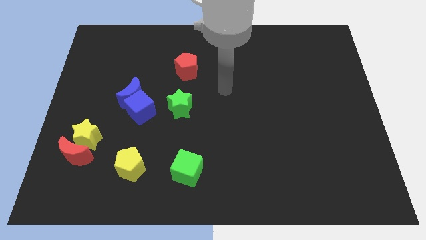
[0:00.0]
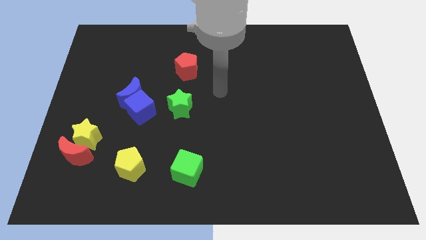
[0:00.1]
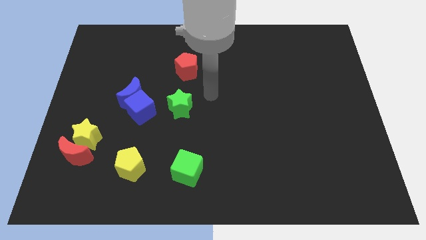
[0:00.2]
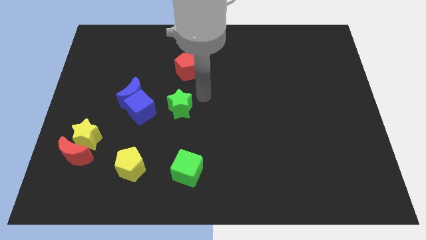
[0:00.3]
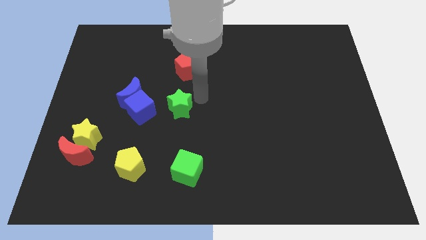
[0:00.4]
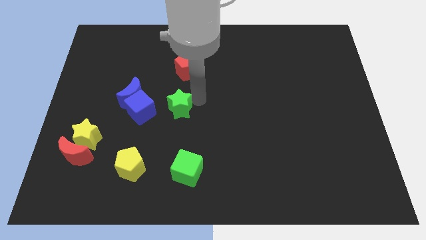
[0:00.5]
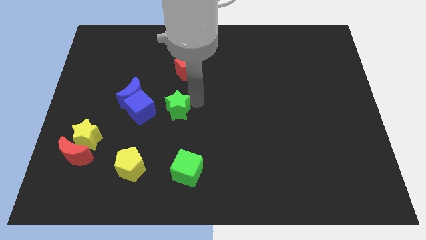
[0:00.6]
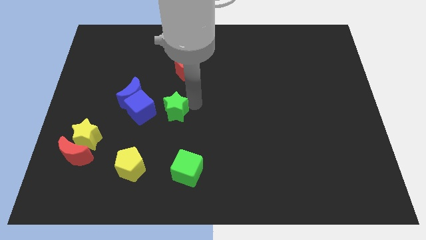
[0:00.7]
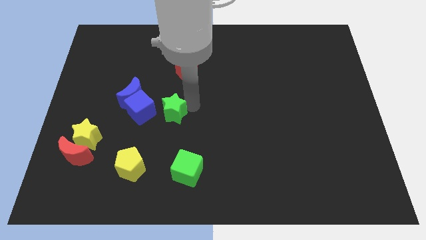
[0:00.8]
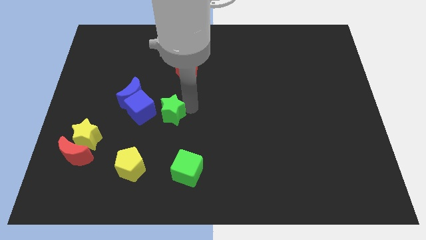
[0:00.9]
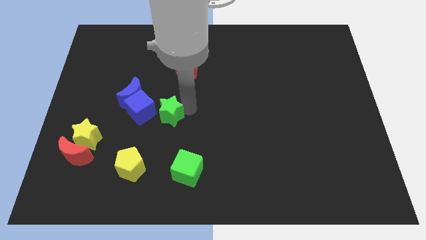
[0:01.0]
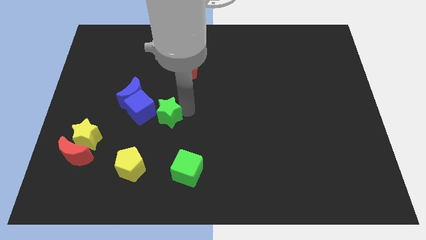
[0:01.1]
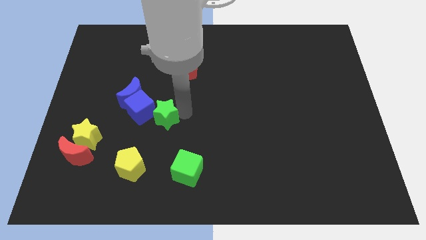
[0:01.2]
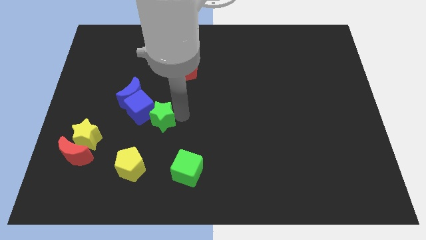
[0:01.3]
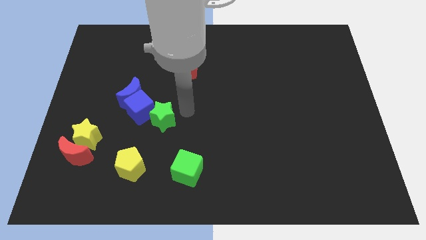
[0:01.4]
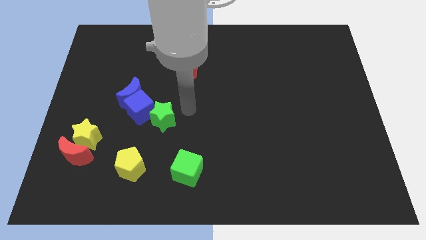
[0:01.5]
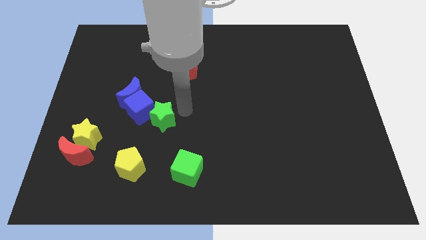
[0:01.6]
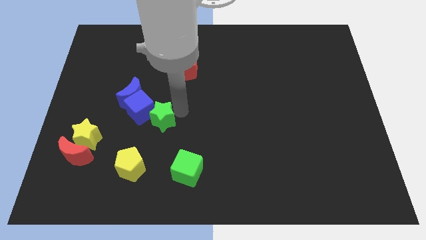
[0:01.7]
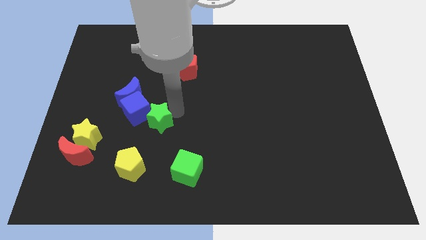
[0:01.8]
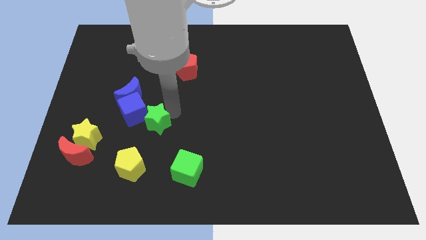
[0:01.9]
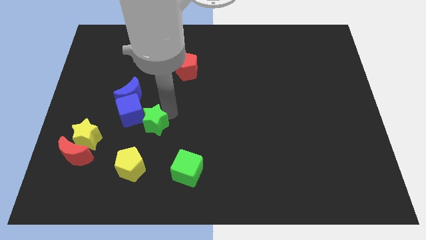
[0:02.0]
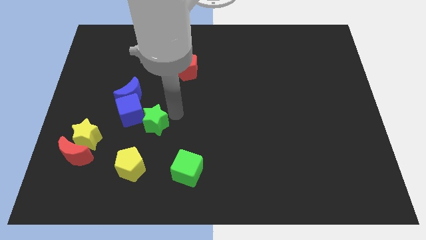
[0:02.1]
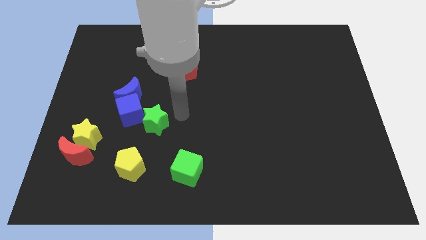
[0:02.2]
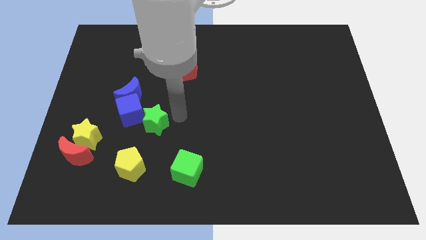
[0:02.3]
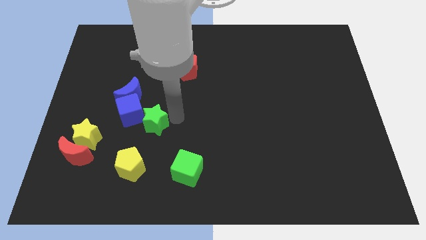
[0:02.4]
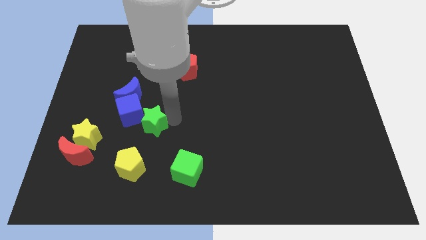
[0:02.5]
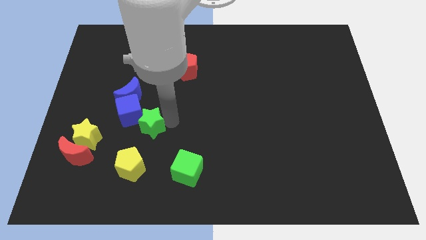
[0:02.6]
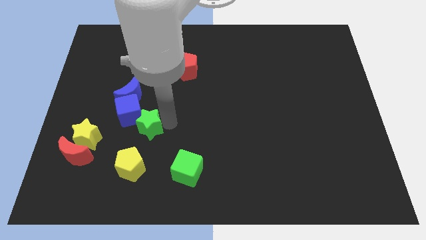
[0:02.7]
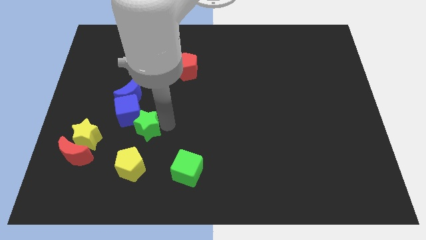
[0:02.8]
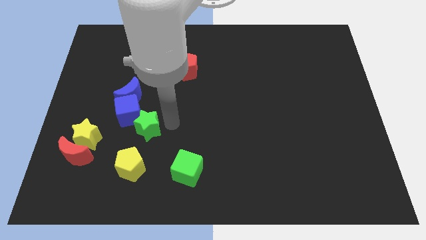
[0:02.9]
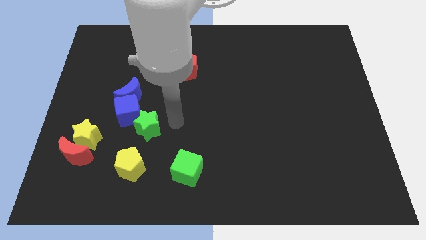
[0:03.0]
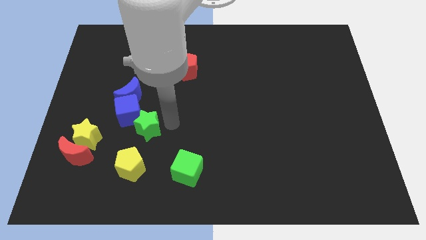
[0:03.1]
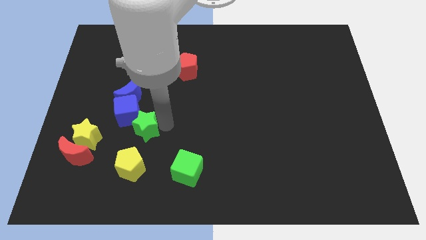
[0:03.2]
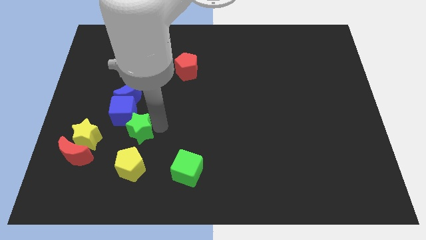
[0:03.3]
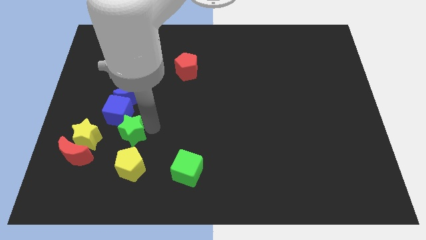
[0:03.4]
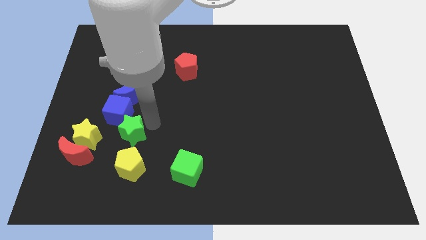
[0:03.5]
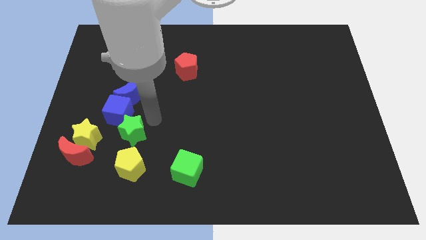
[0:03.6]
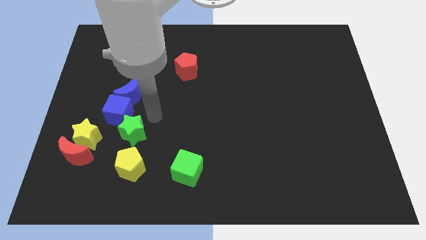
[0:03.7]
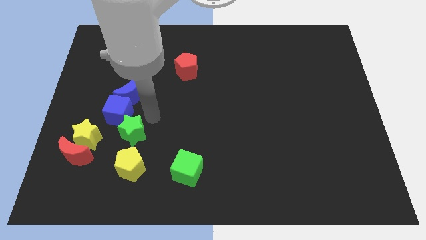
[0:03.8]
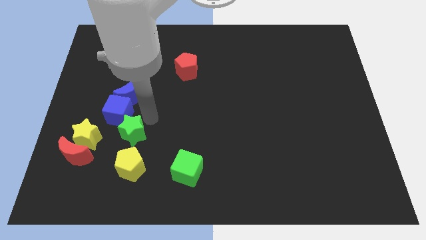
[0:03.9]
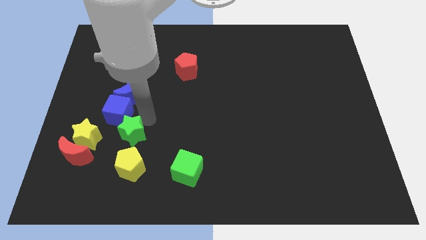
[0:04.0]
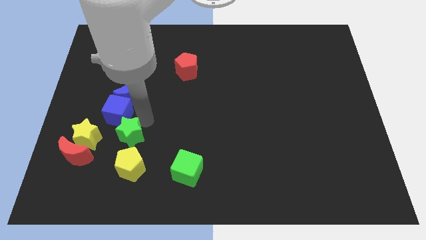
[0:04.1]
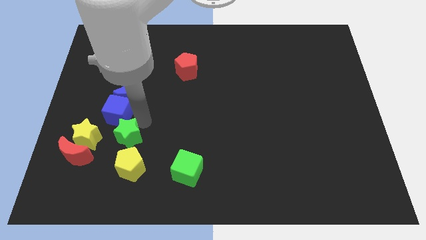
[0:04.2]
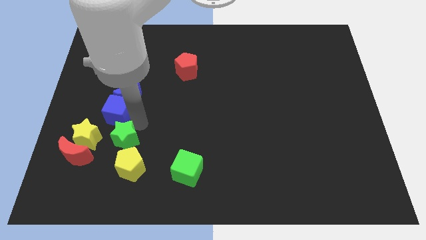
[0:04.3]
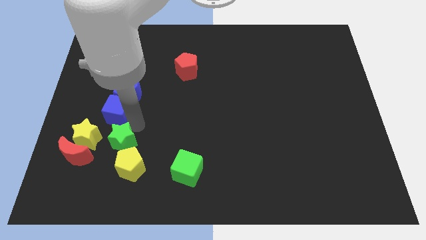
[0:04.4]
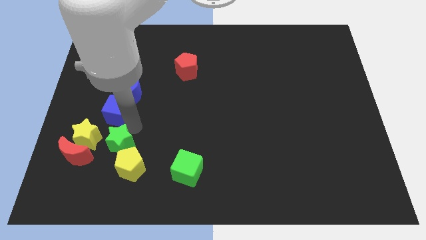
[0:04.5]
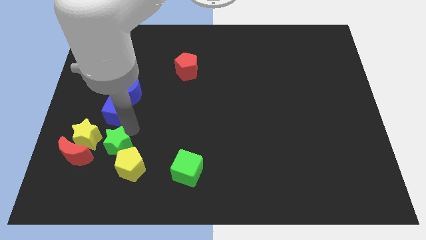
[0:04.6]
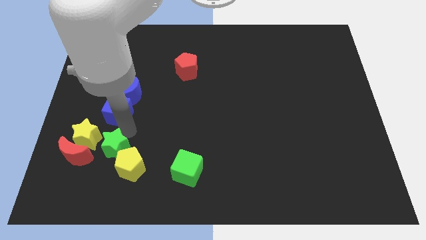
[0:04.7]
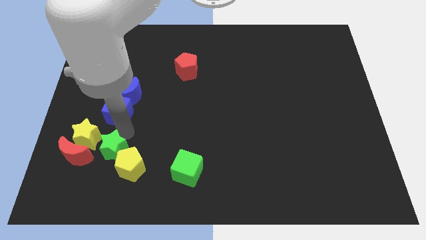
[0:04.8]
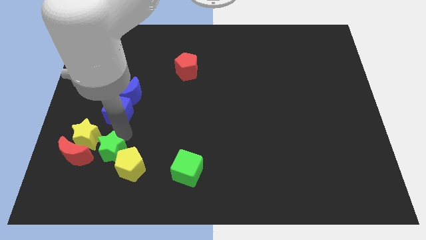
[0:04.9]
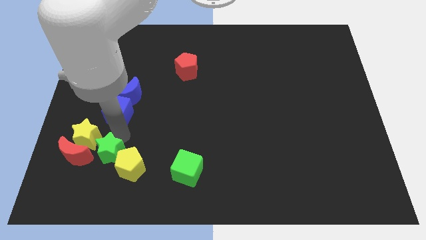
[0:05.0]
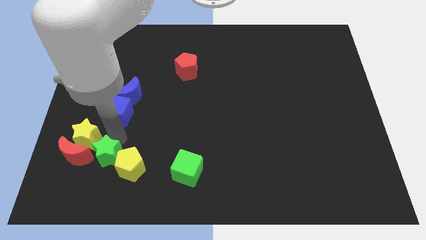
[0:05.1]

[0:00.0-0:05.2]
push the green star to the bottom side of the yellow star

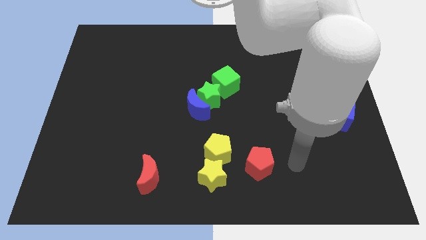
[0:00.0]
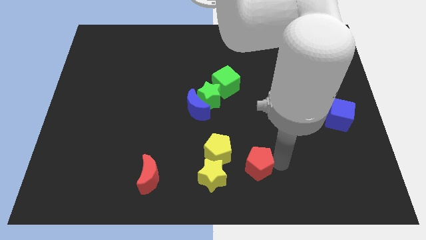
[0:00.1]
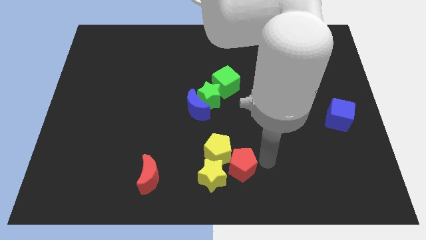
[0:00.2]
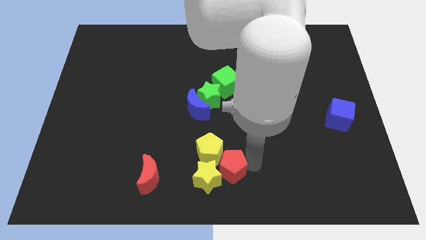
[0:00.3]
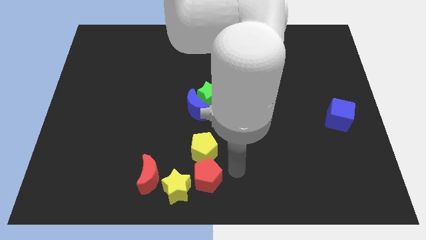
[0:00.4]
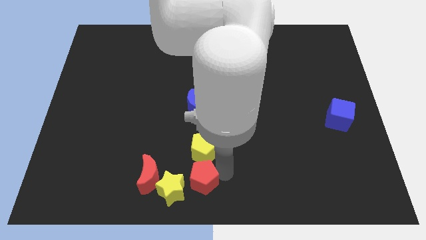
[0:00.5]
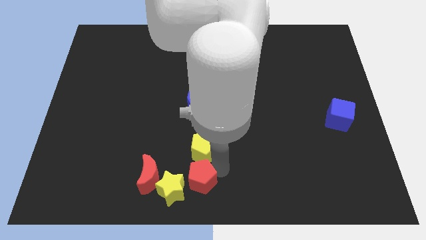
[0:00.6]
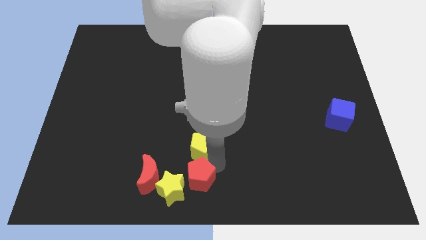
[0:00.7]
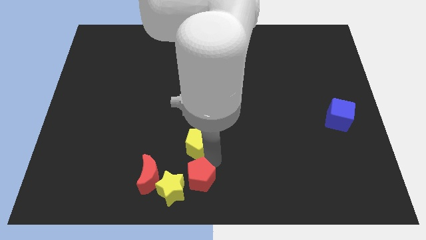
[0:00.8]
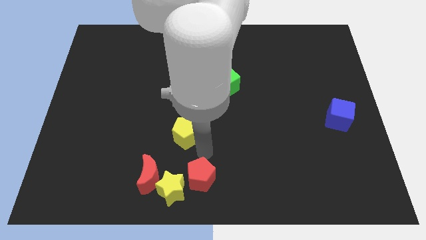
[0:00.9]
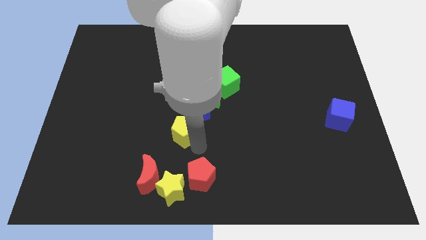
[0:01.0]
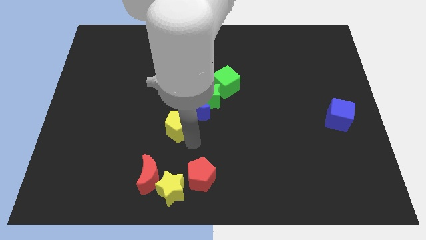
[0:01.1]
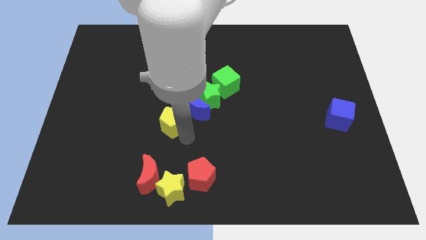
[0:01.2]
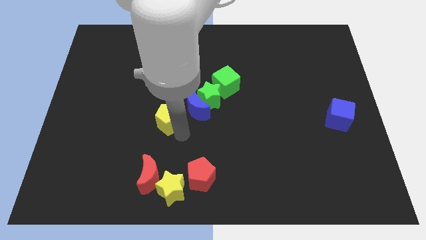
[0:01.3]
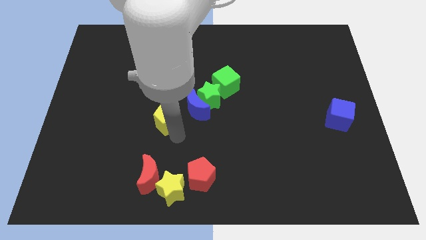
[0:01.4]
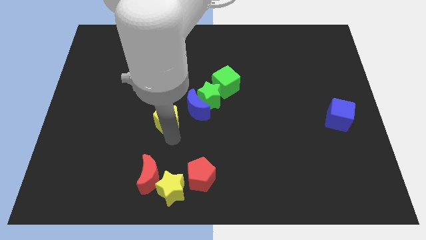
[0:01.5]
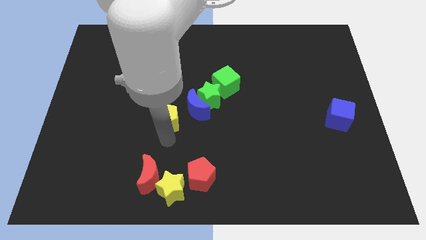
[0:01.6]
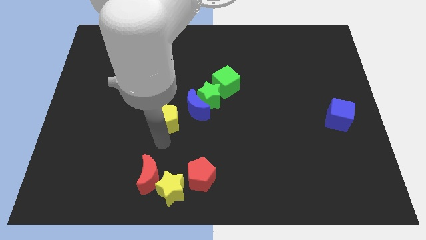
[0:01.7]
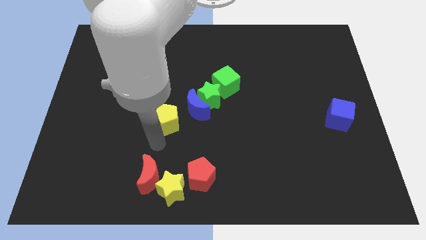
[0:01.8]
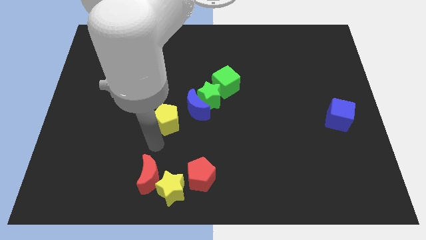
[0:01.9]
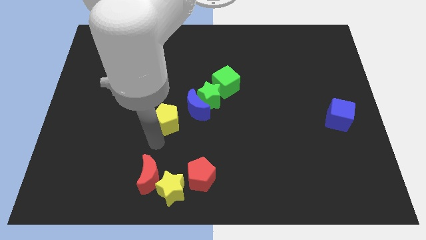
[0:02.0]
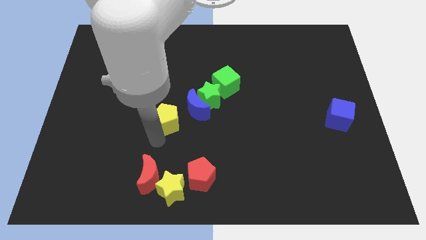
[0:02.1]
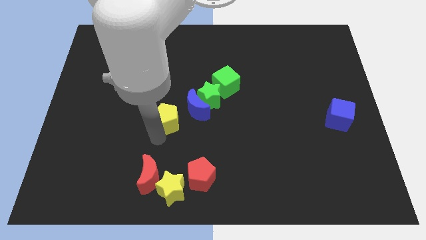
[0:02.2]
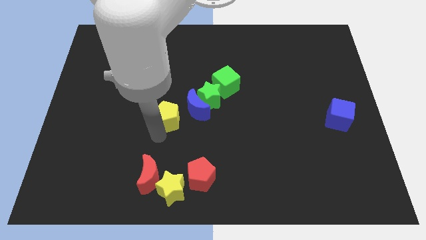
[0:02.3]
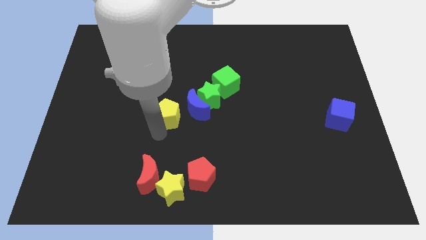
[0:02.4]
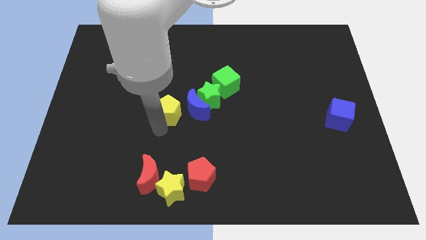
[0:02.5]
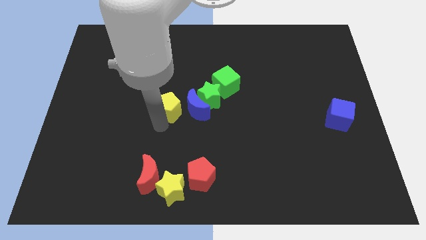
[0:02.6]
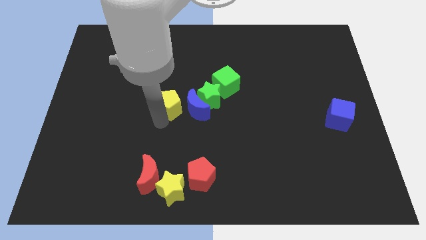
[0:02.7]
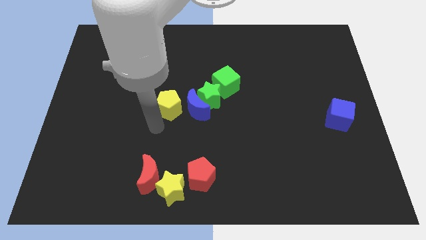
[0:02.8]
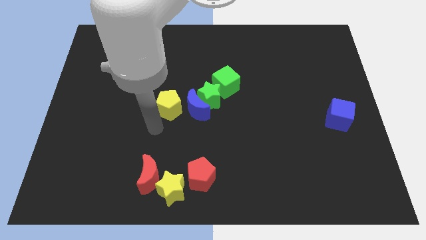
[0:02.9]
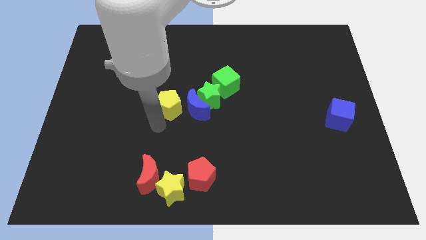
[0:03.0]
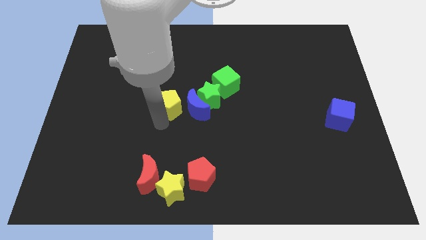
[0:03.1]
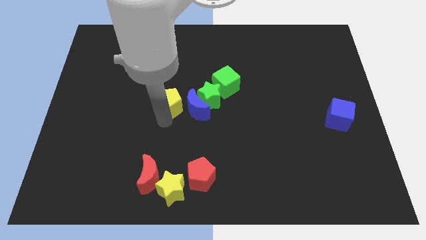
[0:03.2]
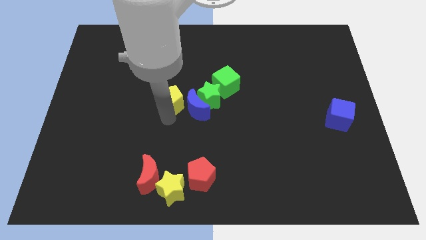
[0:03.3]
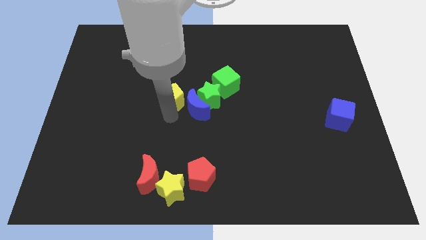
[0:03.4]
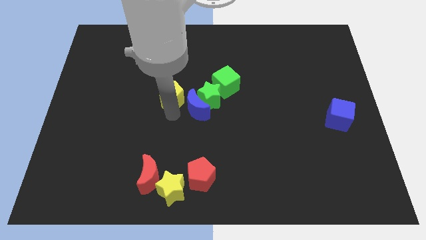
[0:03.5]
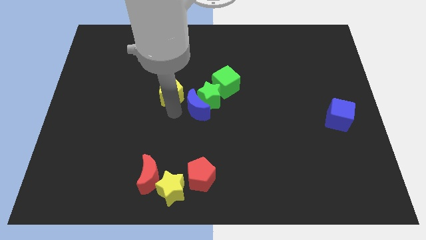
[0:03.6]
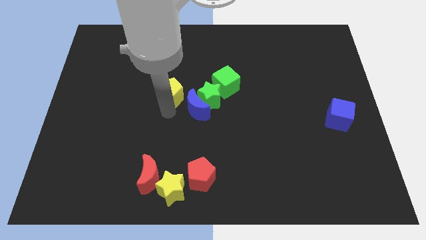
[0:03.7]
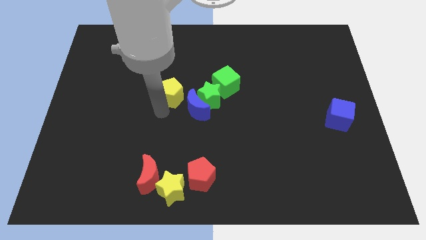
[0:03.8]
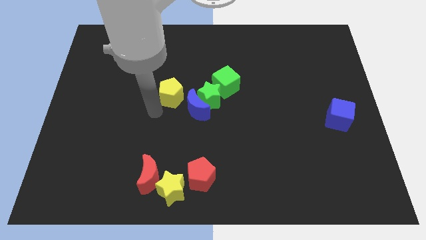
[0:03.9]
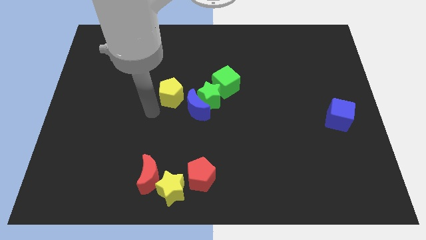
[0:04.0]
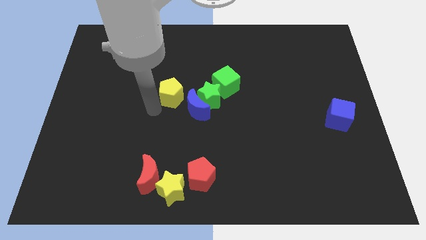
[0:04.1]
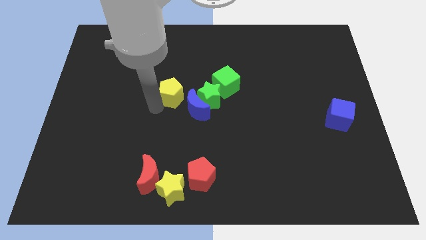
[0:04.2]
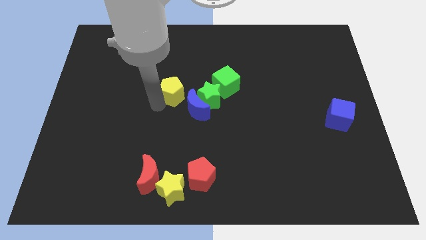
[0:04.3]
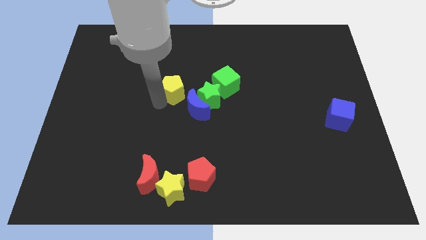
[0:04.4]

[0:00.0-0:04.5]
slide the yellow pentagon diagonally up and to the left of the green star
